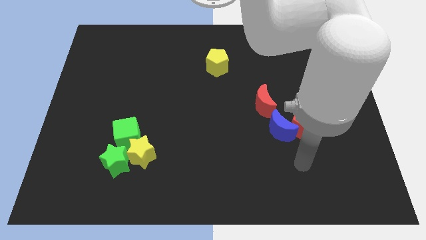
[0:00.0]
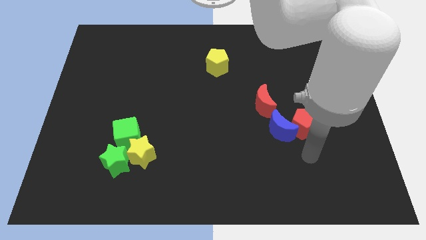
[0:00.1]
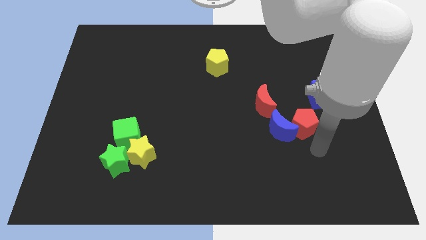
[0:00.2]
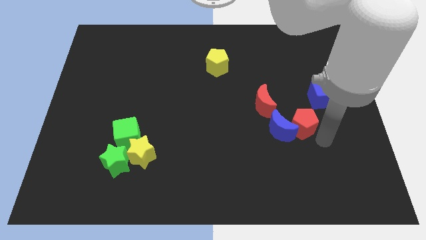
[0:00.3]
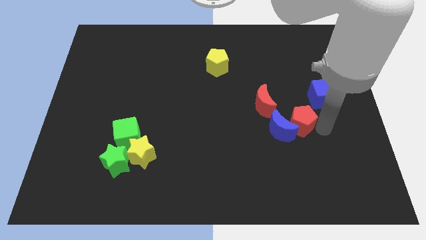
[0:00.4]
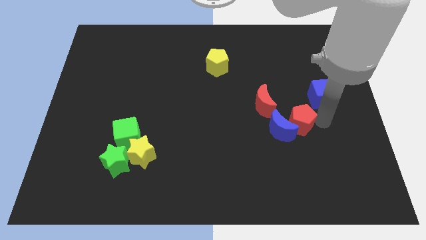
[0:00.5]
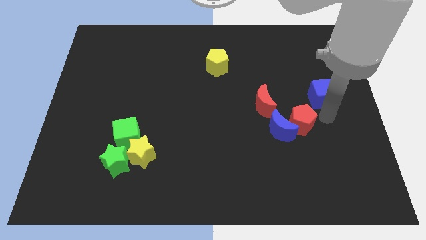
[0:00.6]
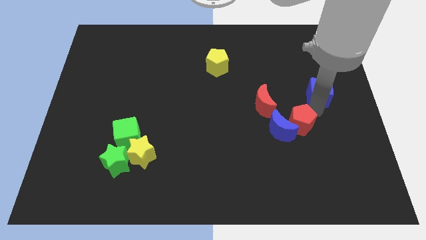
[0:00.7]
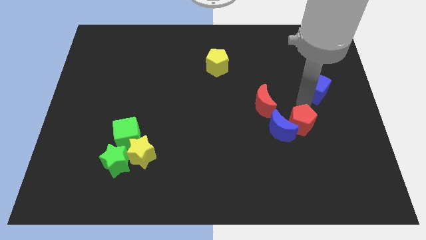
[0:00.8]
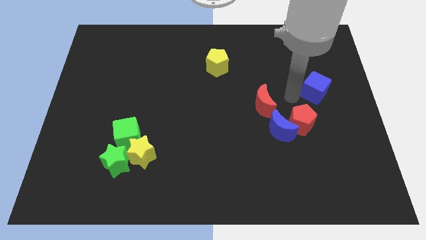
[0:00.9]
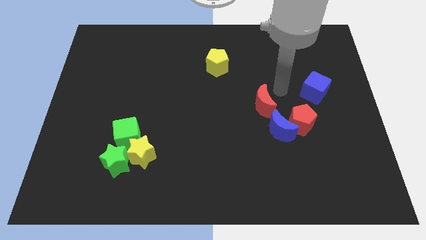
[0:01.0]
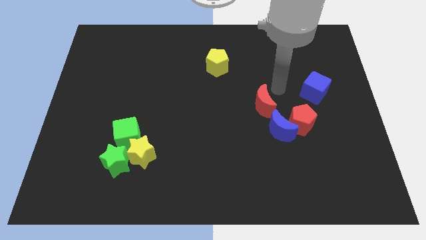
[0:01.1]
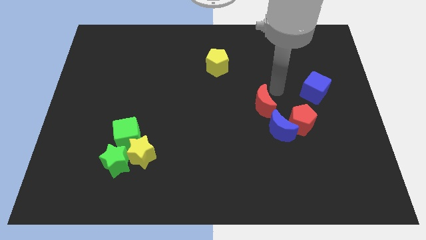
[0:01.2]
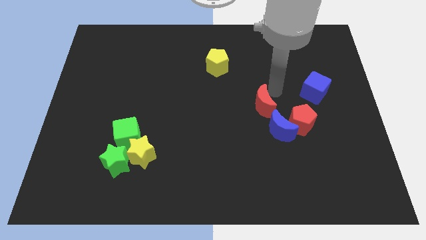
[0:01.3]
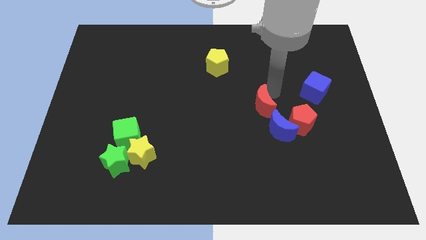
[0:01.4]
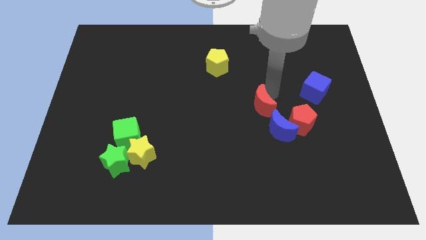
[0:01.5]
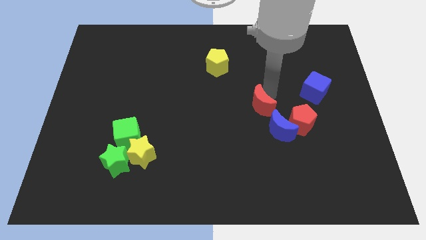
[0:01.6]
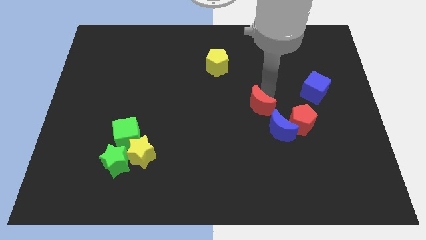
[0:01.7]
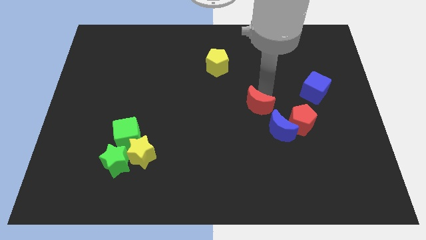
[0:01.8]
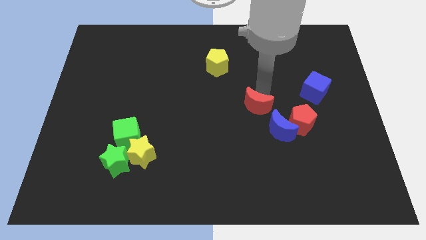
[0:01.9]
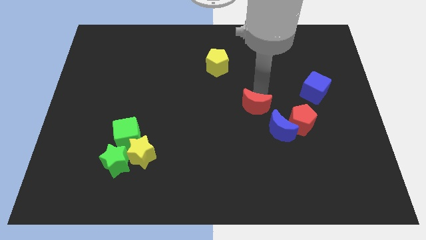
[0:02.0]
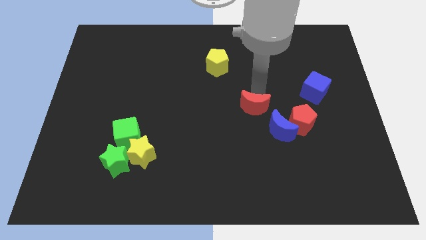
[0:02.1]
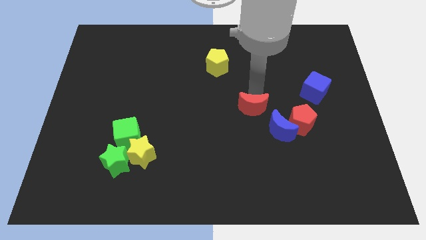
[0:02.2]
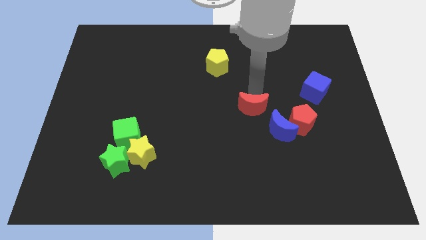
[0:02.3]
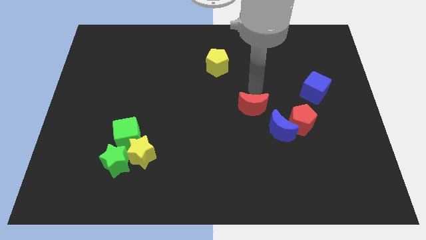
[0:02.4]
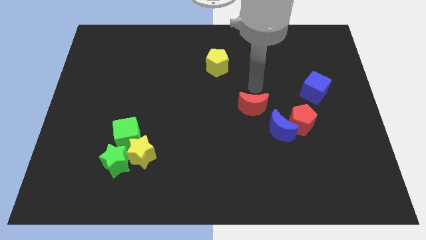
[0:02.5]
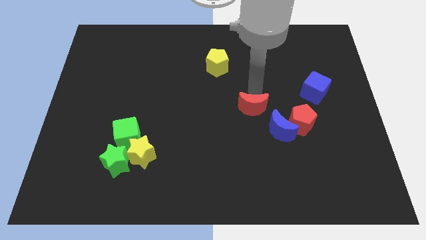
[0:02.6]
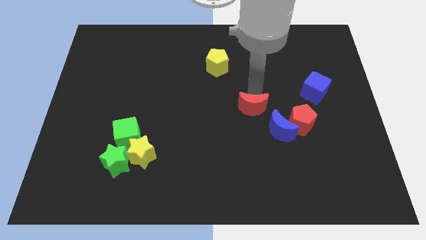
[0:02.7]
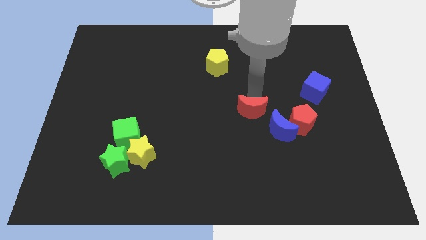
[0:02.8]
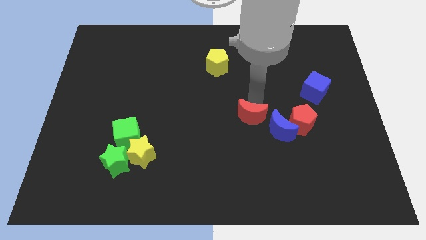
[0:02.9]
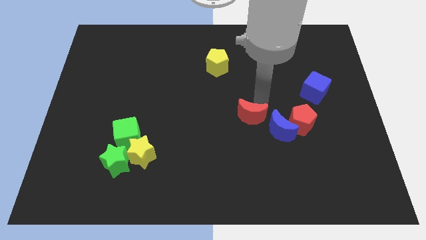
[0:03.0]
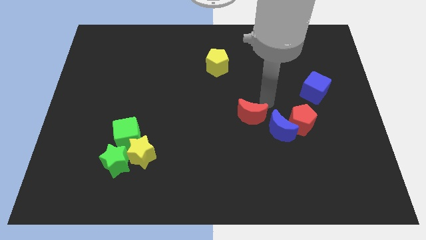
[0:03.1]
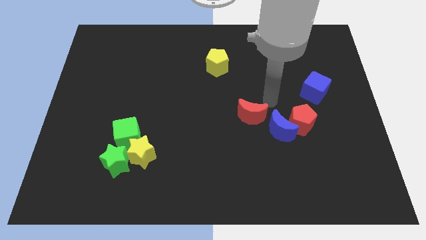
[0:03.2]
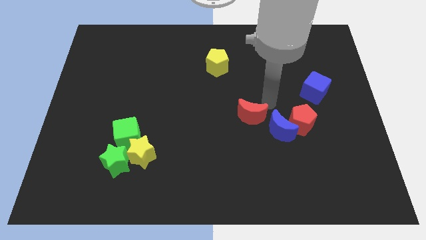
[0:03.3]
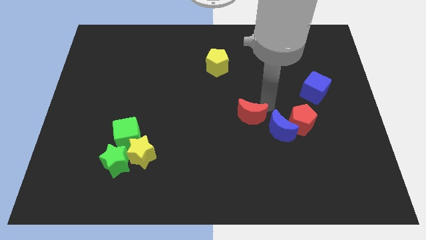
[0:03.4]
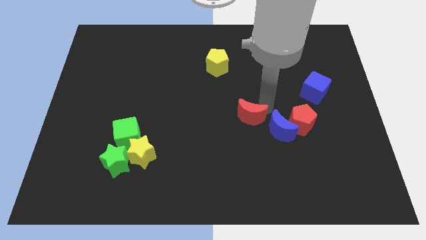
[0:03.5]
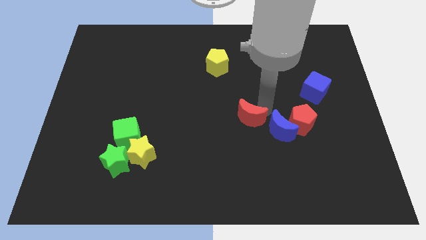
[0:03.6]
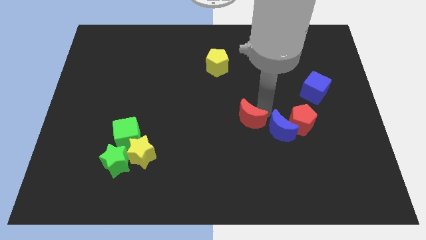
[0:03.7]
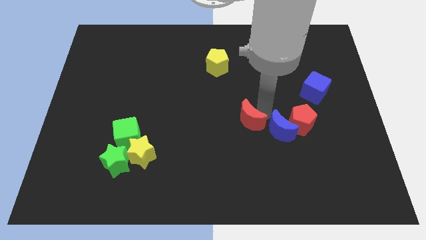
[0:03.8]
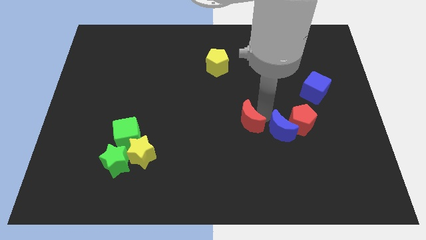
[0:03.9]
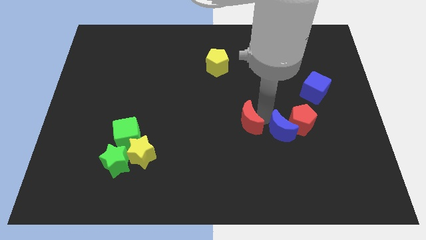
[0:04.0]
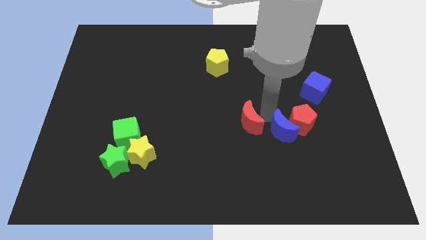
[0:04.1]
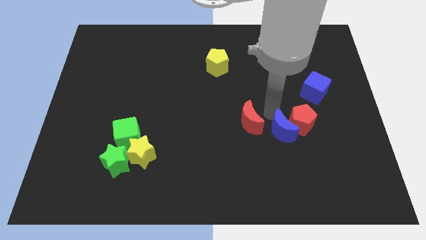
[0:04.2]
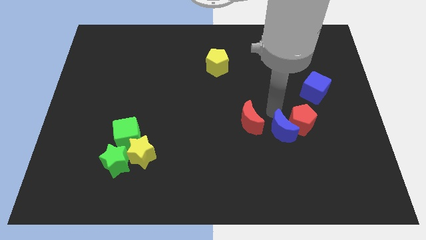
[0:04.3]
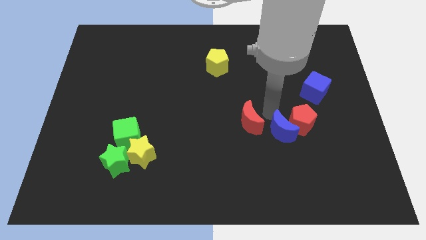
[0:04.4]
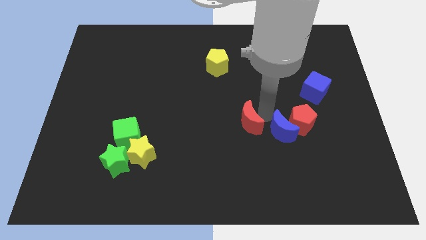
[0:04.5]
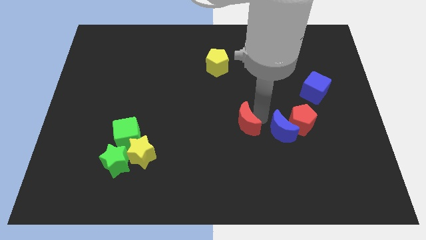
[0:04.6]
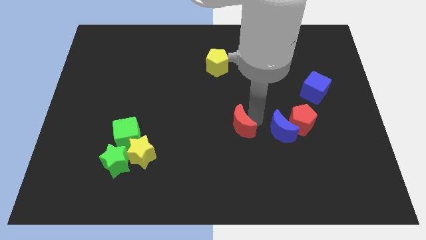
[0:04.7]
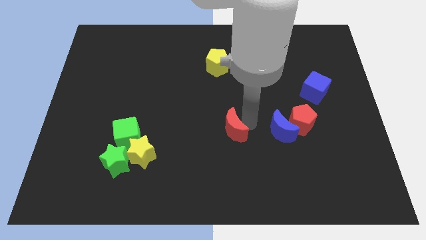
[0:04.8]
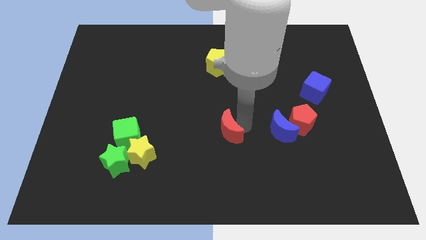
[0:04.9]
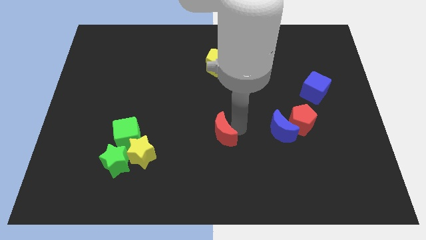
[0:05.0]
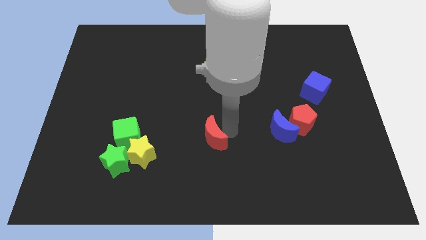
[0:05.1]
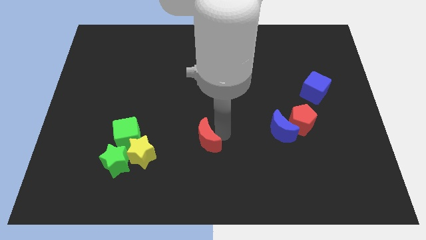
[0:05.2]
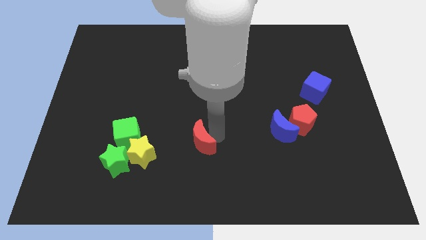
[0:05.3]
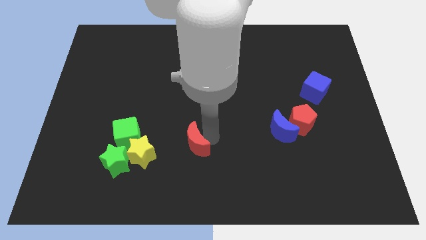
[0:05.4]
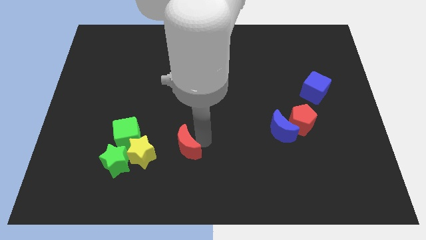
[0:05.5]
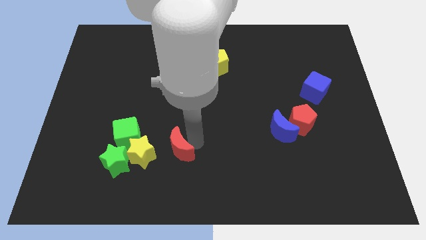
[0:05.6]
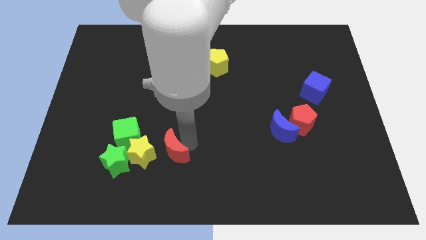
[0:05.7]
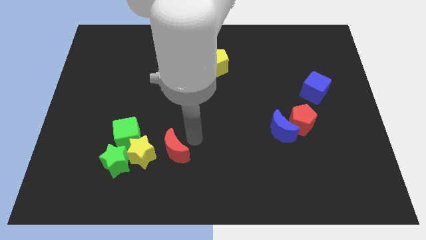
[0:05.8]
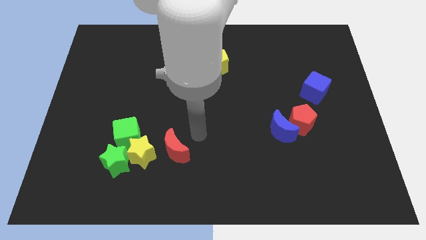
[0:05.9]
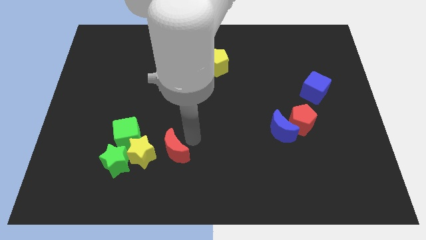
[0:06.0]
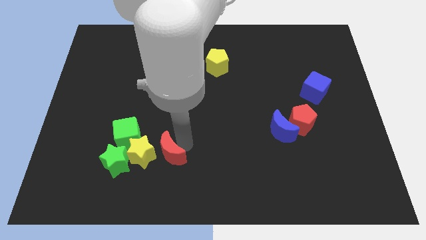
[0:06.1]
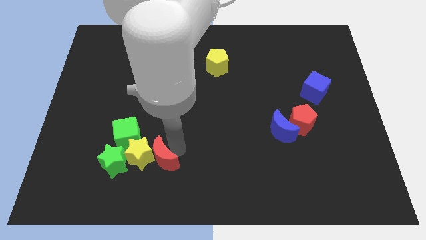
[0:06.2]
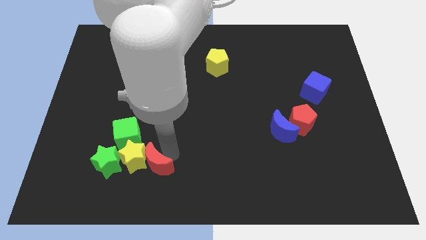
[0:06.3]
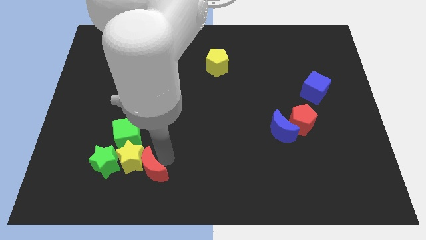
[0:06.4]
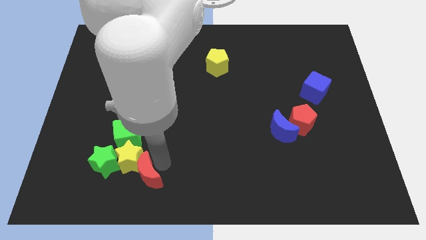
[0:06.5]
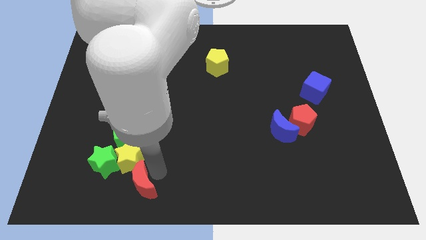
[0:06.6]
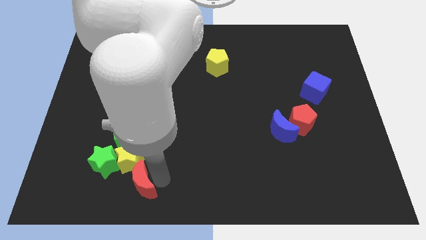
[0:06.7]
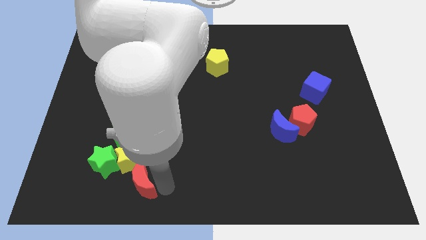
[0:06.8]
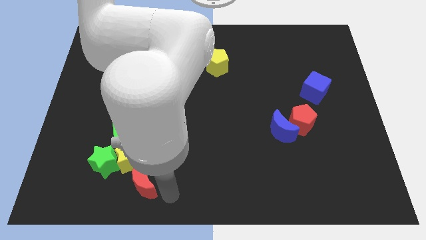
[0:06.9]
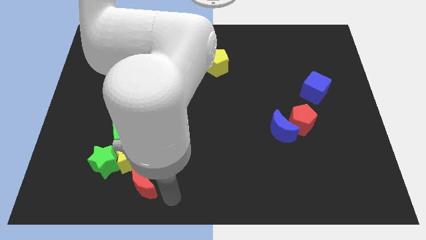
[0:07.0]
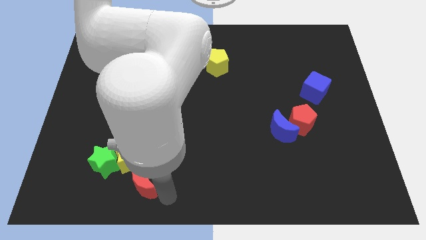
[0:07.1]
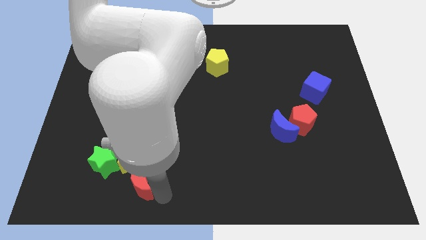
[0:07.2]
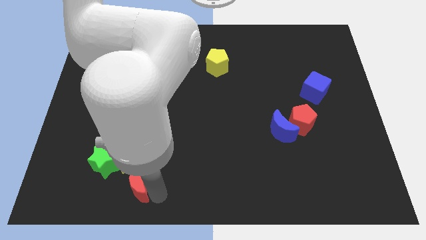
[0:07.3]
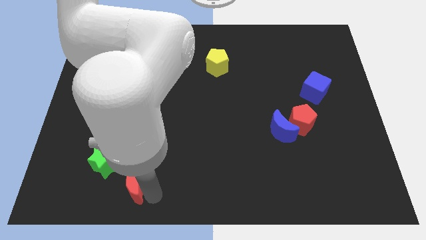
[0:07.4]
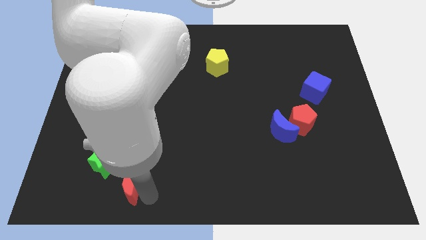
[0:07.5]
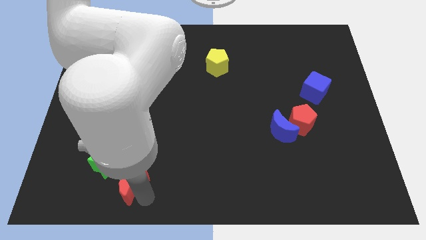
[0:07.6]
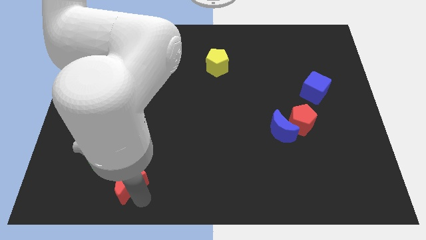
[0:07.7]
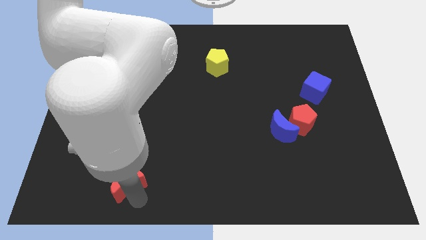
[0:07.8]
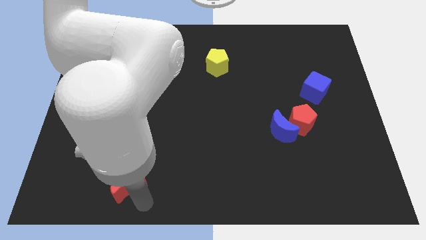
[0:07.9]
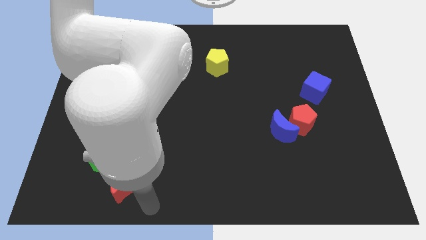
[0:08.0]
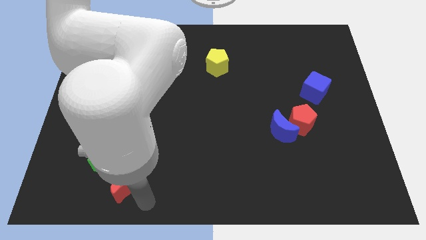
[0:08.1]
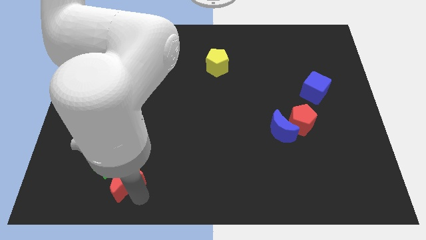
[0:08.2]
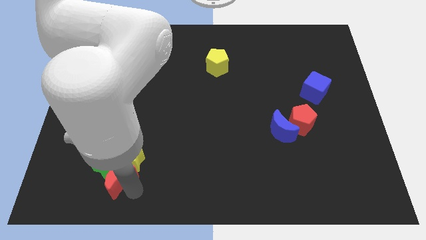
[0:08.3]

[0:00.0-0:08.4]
push the red moon next to the green star
